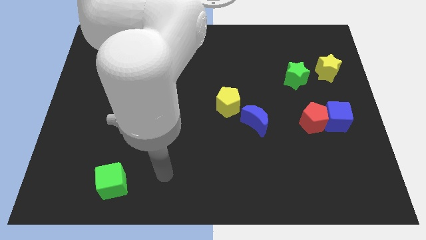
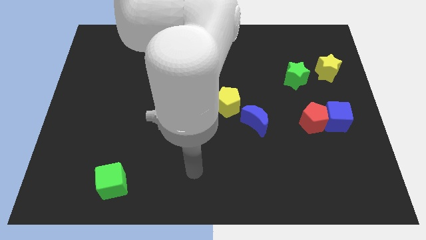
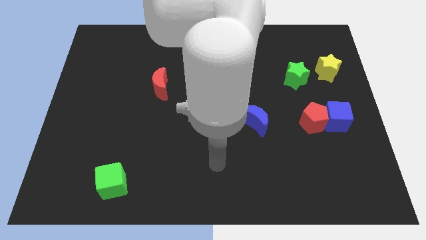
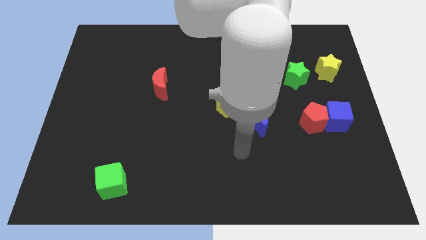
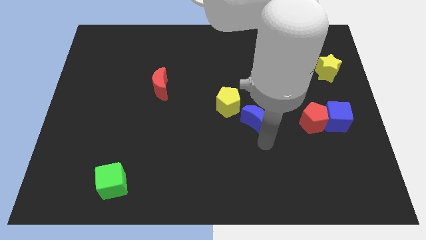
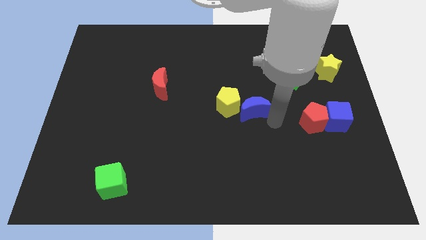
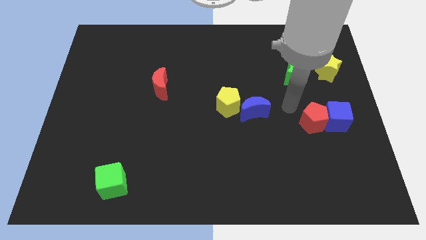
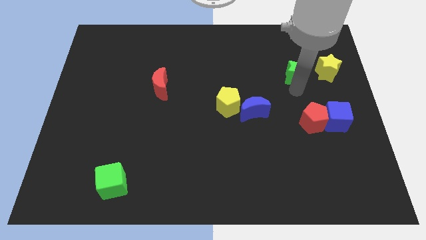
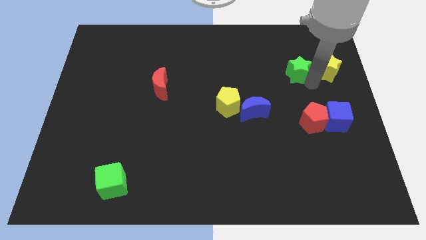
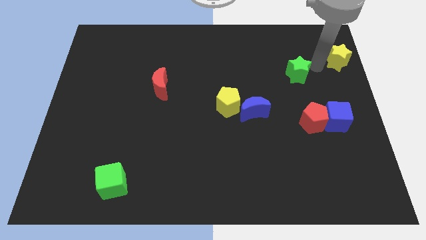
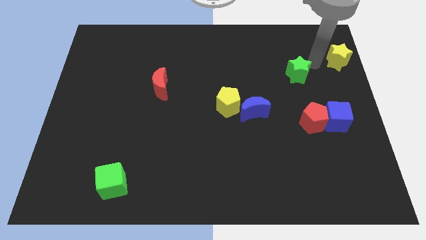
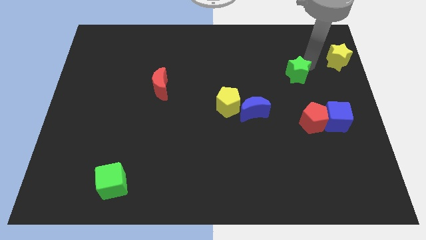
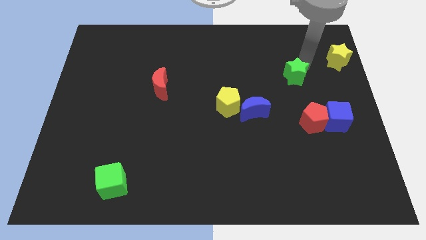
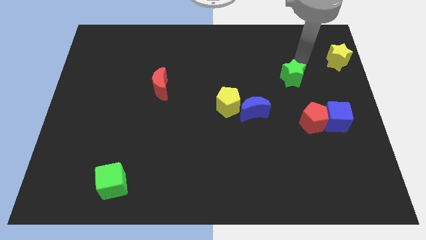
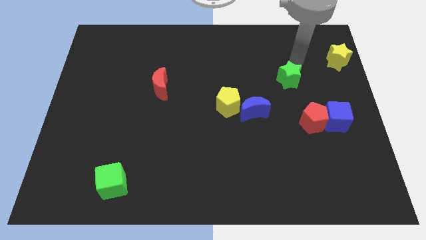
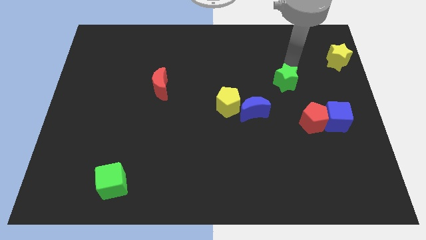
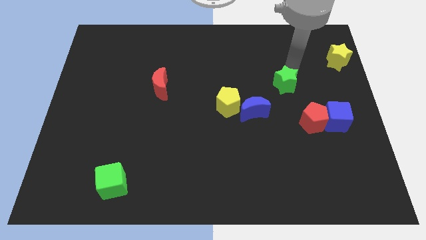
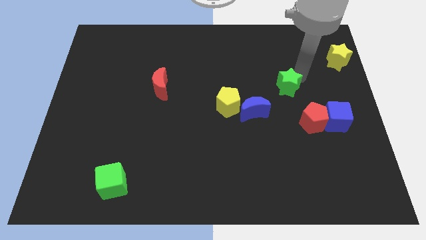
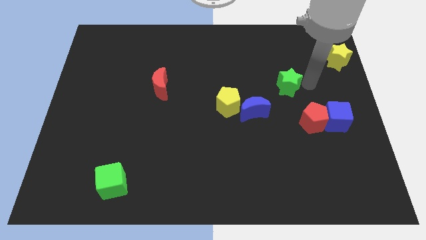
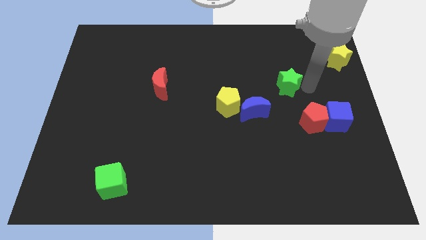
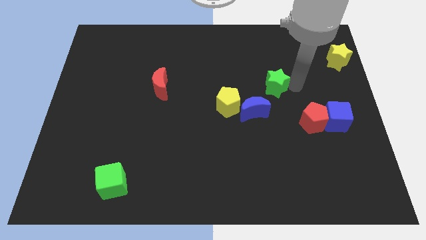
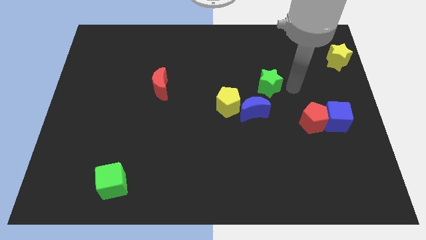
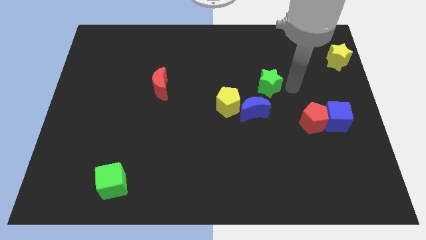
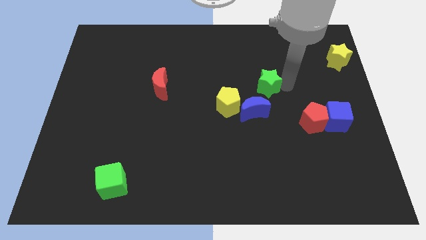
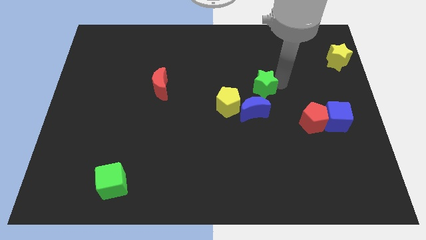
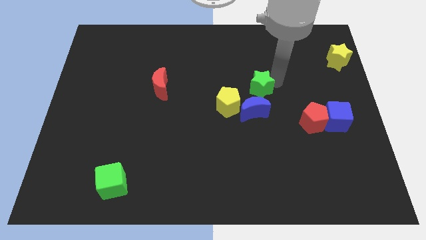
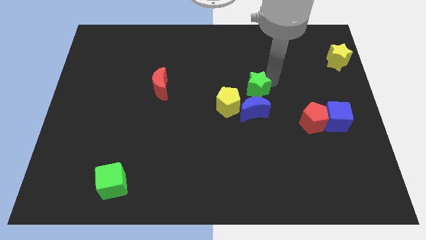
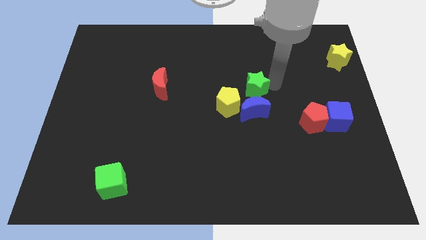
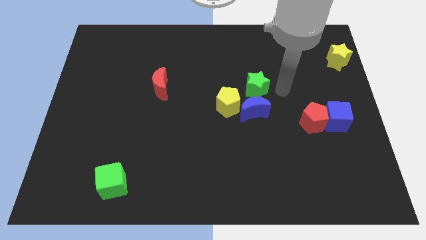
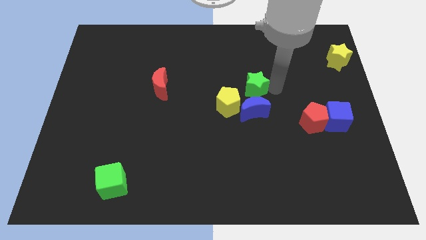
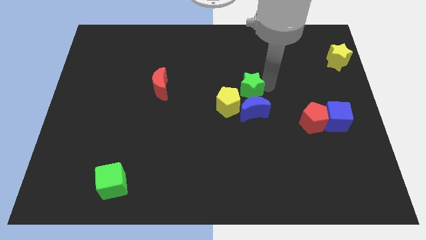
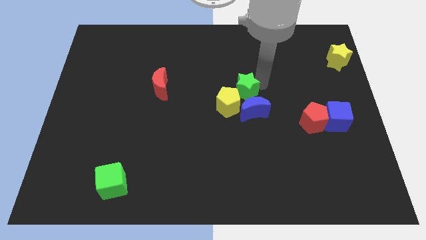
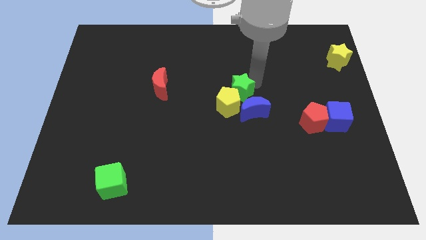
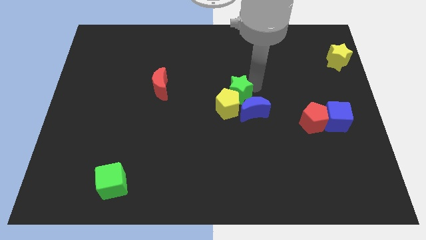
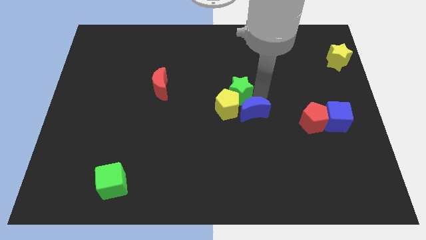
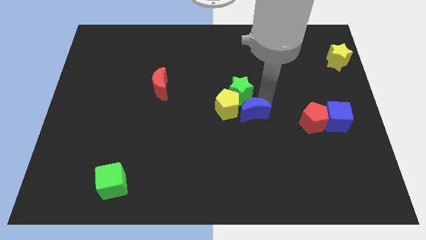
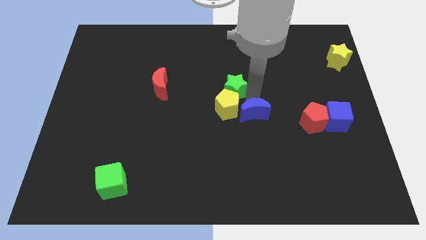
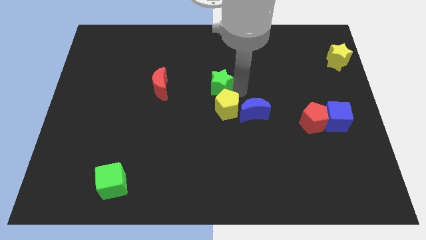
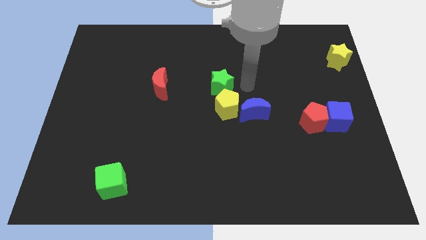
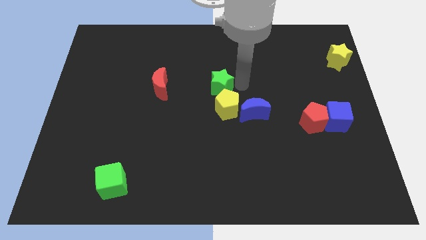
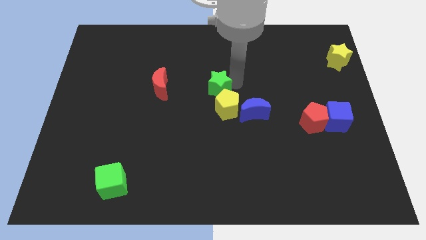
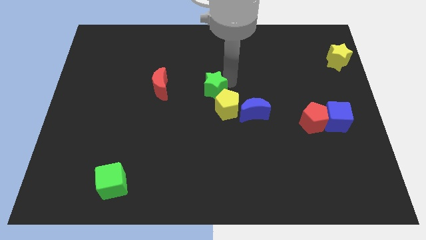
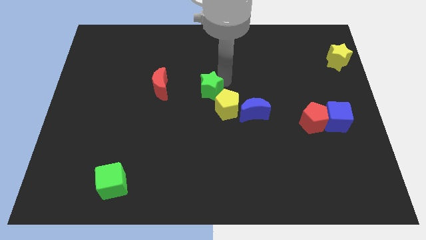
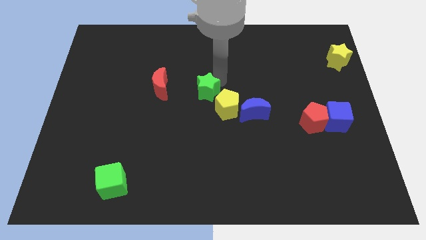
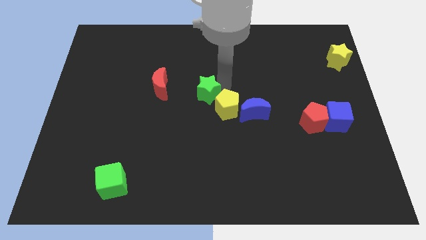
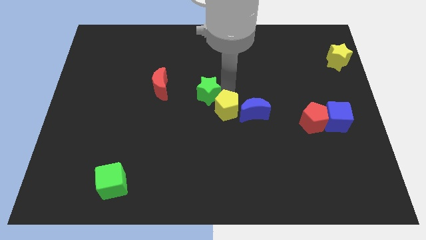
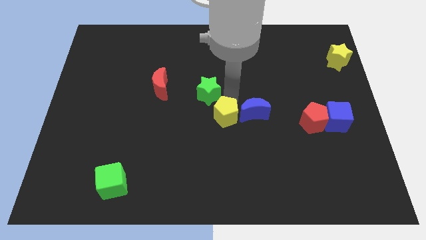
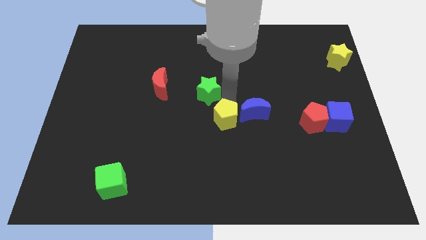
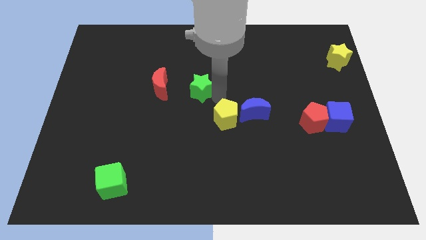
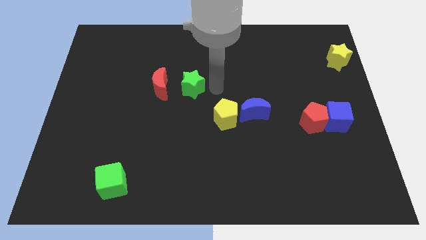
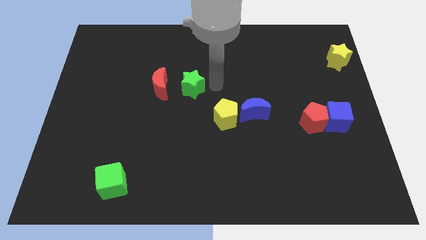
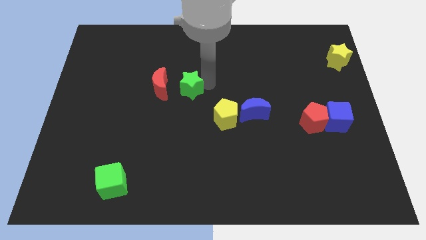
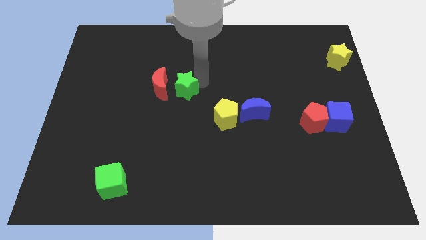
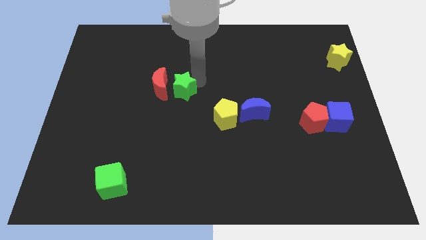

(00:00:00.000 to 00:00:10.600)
slide the green star to the red moon

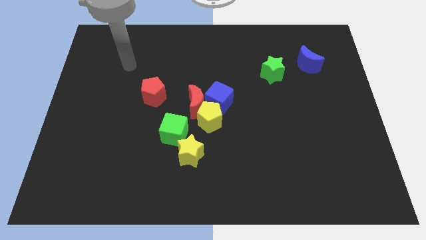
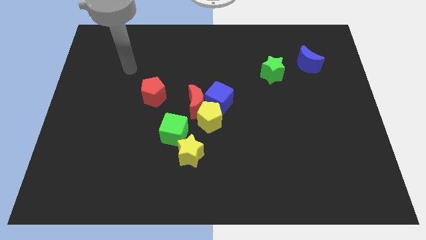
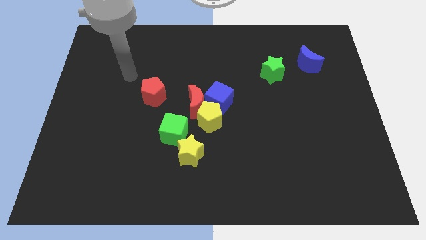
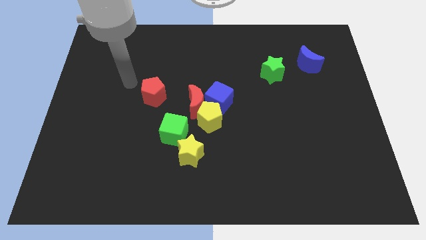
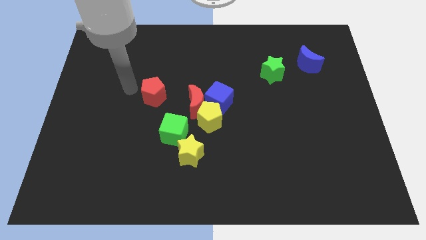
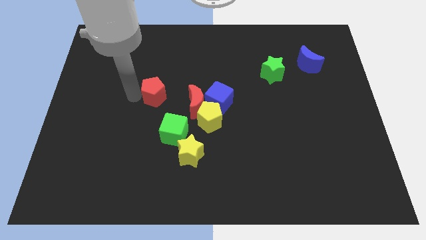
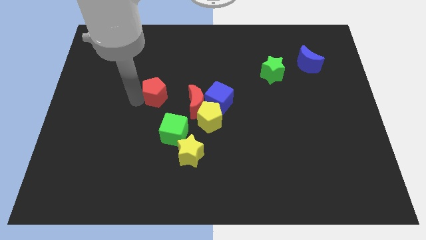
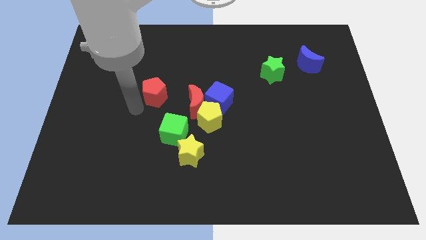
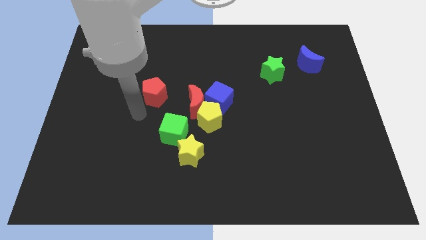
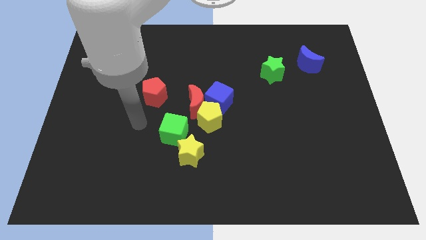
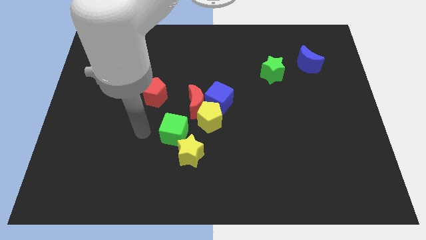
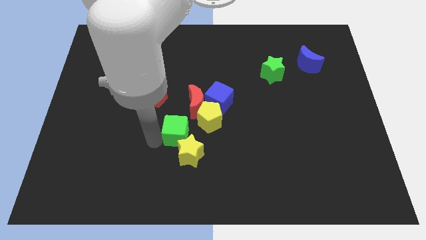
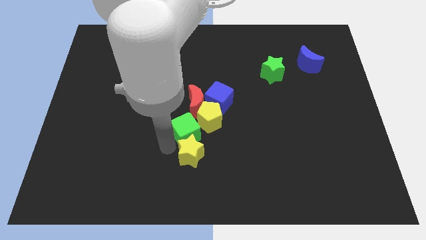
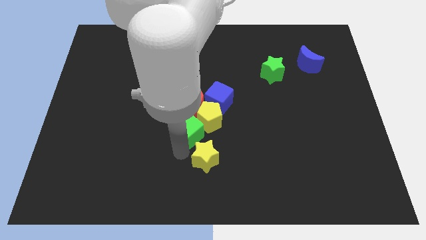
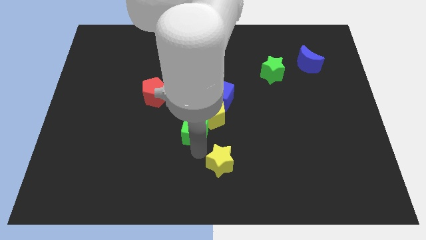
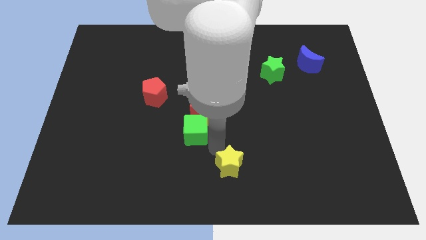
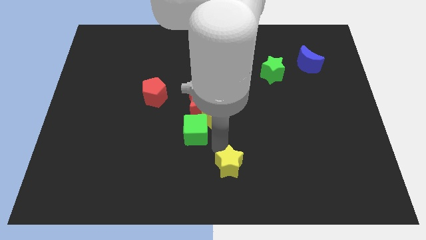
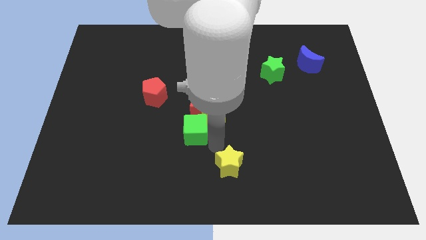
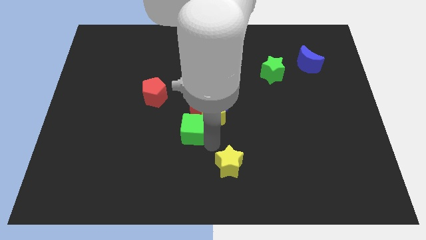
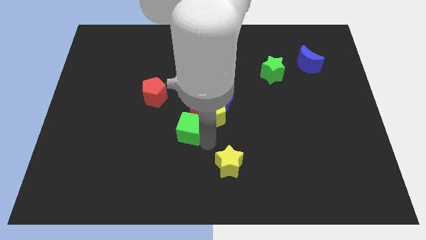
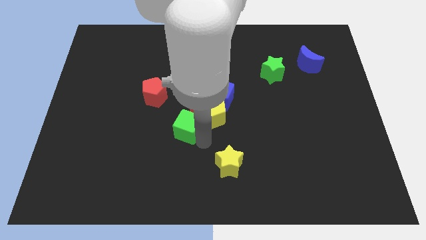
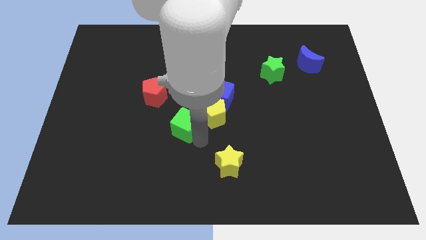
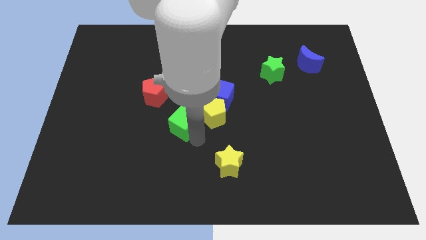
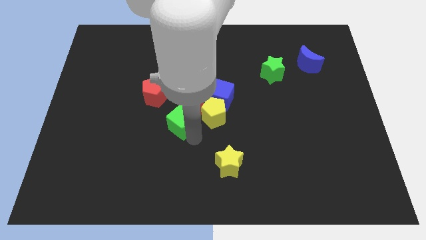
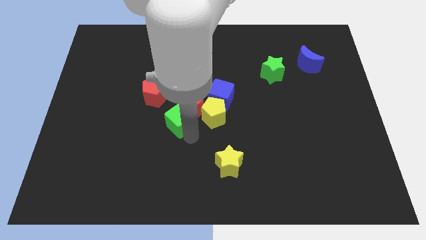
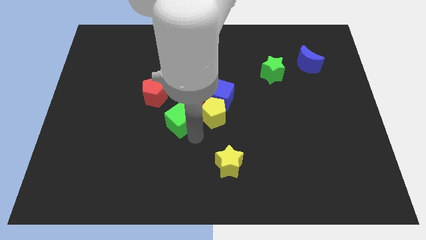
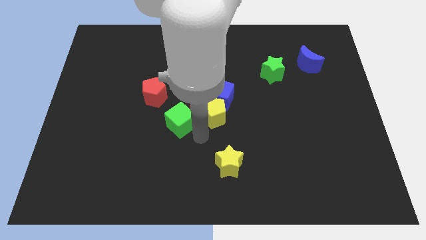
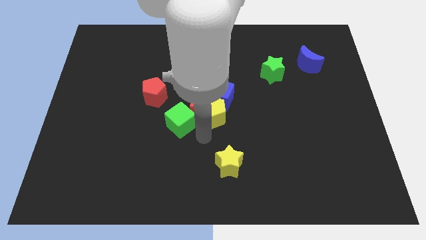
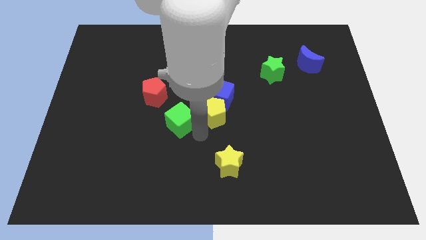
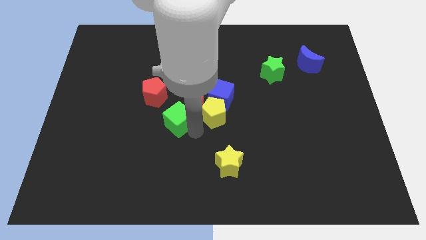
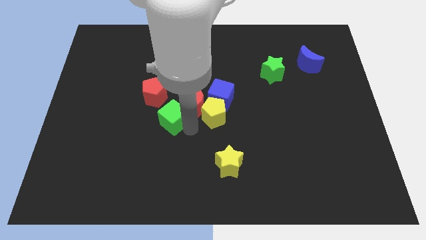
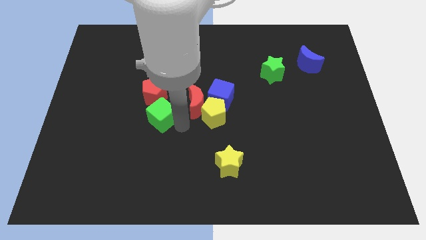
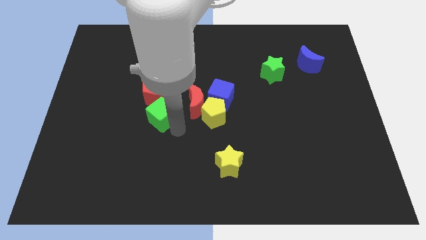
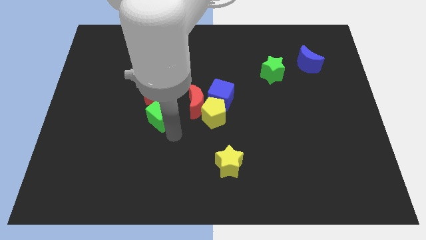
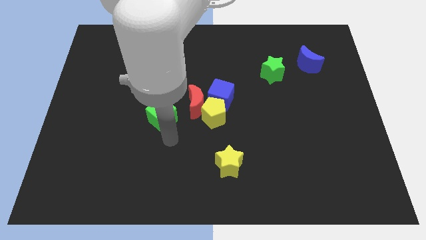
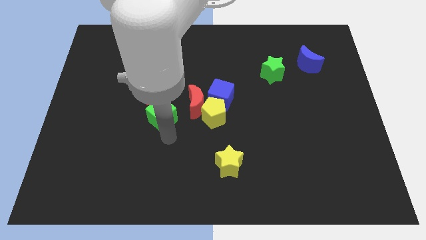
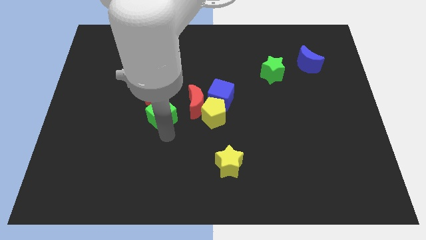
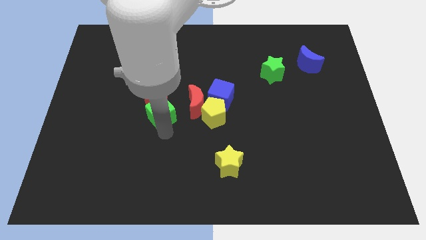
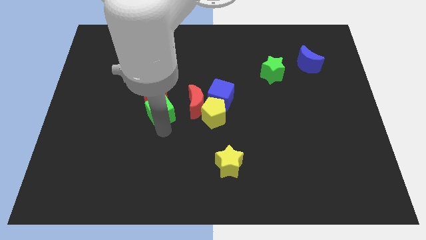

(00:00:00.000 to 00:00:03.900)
push the green cube towards the red pentagon
